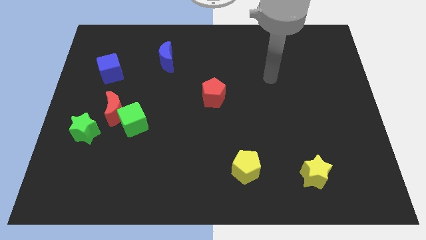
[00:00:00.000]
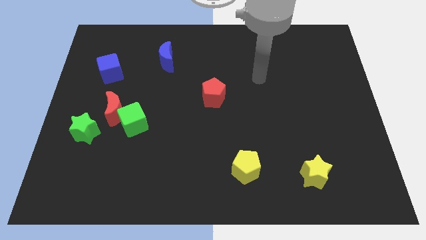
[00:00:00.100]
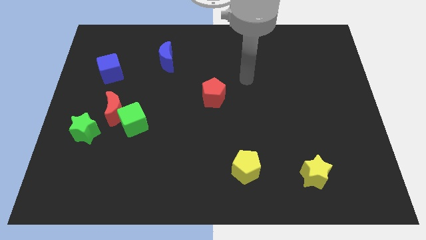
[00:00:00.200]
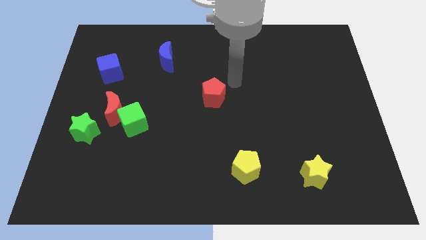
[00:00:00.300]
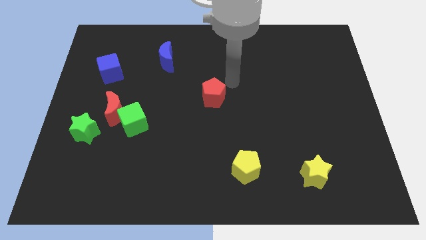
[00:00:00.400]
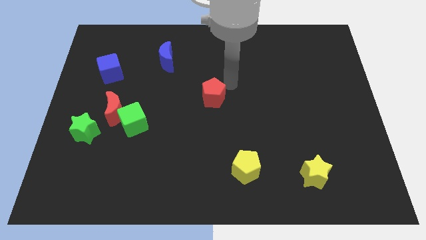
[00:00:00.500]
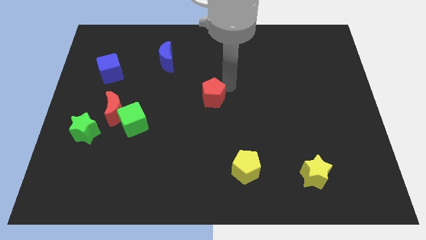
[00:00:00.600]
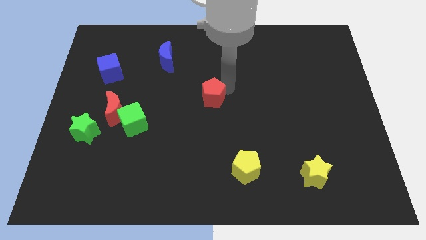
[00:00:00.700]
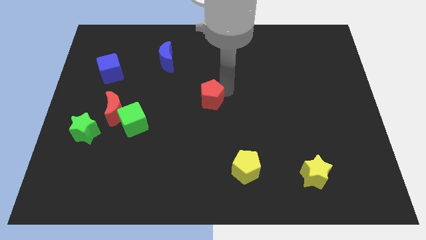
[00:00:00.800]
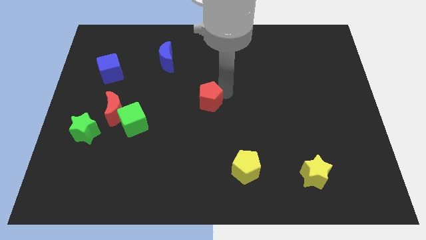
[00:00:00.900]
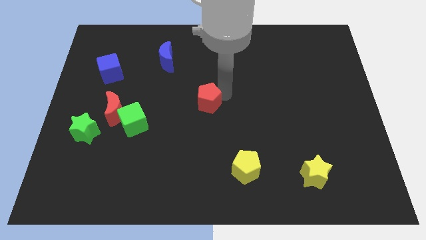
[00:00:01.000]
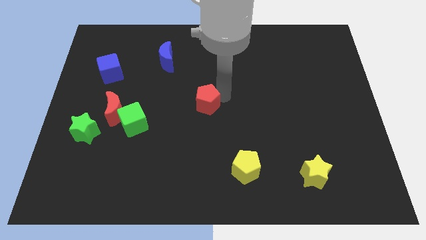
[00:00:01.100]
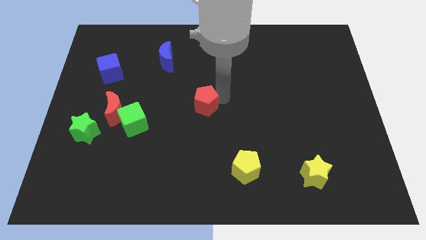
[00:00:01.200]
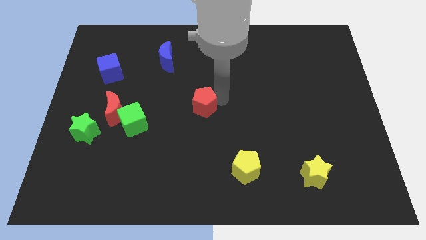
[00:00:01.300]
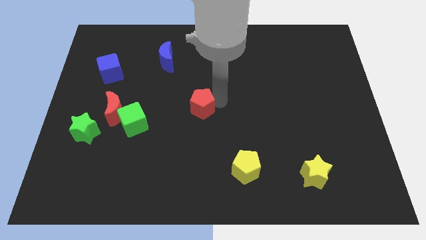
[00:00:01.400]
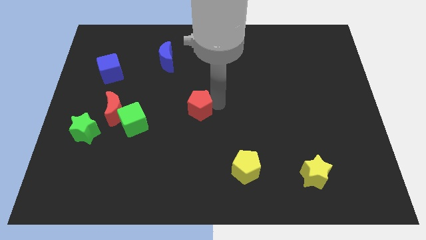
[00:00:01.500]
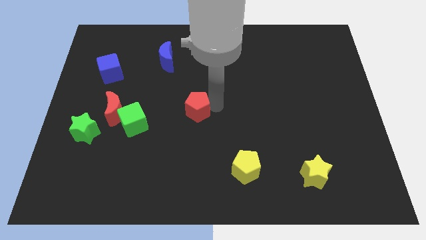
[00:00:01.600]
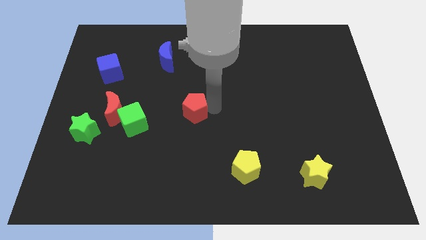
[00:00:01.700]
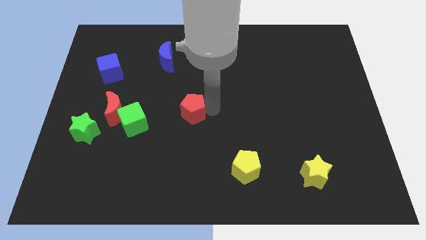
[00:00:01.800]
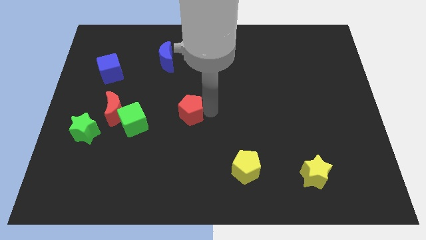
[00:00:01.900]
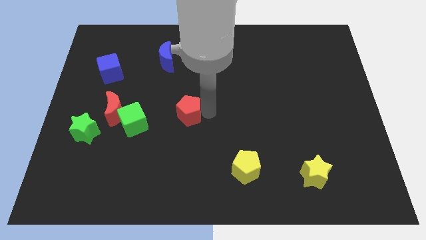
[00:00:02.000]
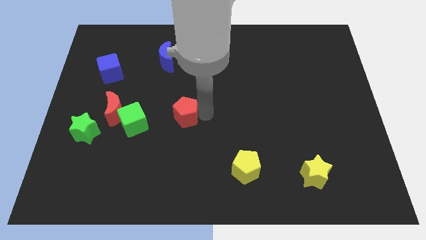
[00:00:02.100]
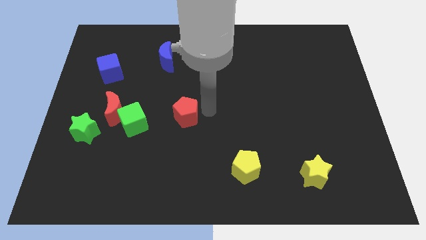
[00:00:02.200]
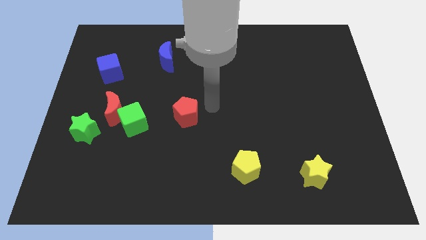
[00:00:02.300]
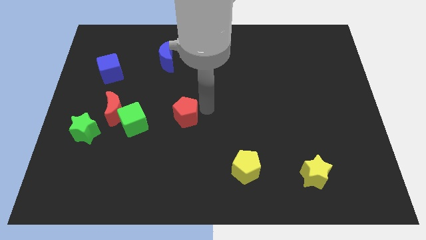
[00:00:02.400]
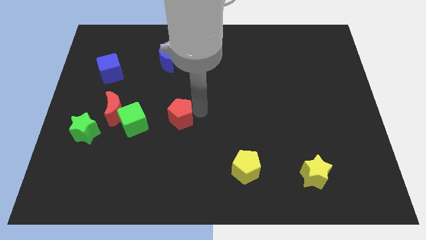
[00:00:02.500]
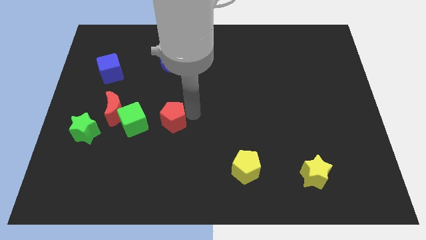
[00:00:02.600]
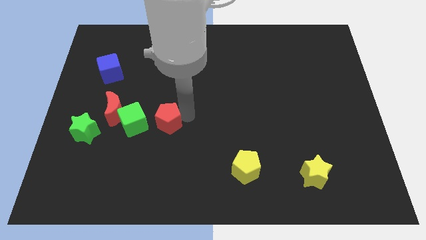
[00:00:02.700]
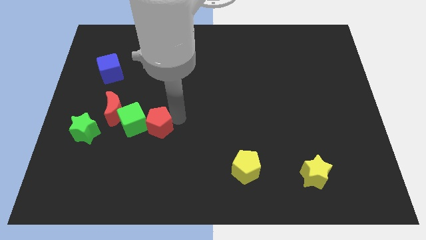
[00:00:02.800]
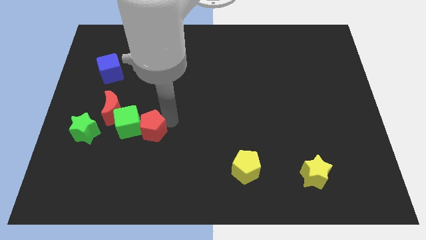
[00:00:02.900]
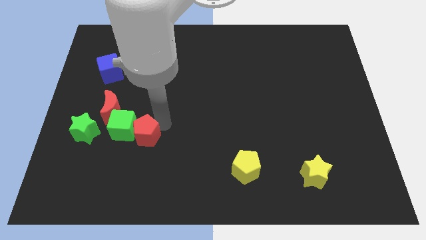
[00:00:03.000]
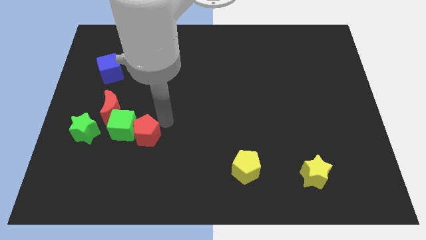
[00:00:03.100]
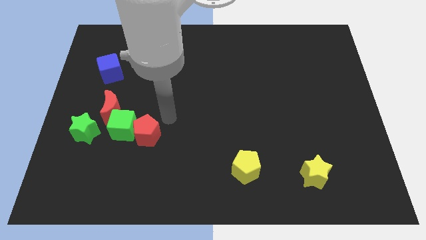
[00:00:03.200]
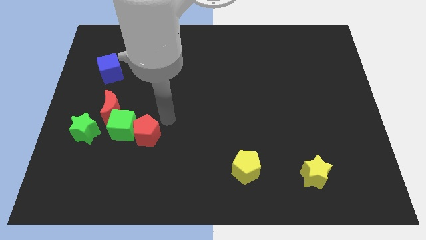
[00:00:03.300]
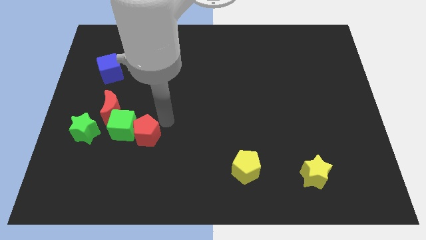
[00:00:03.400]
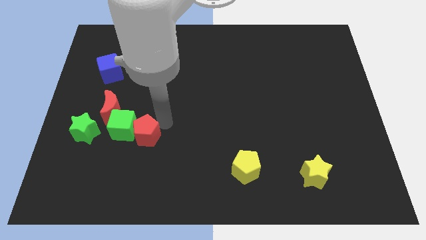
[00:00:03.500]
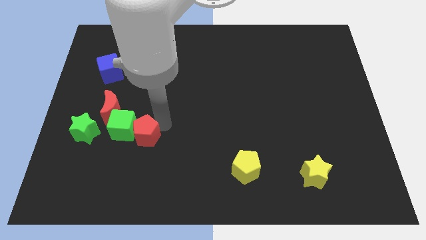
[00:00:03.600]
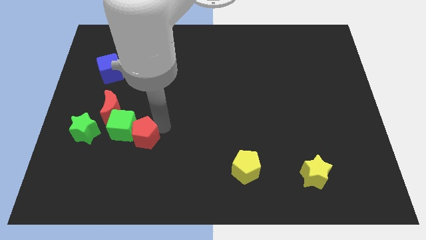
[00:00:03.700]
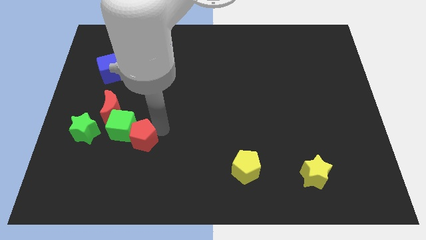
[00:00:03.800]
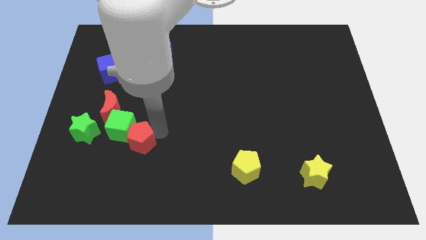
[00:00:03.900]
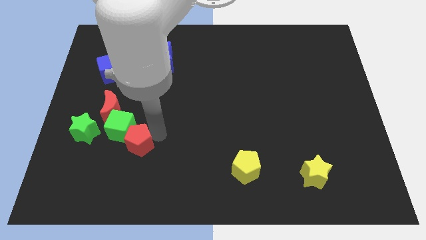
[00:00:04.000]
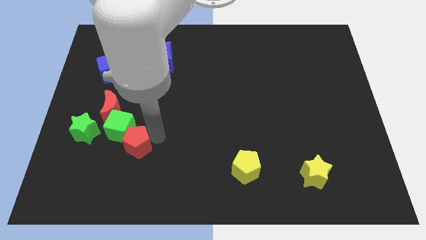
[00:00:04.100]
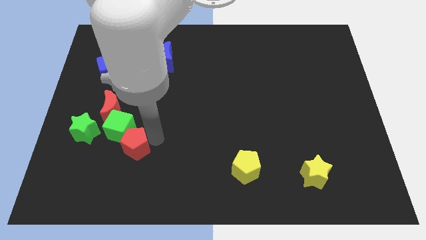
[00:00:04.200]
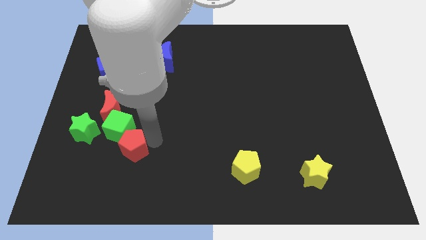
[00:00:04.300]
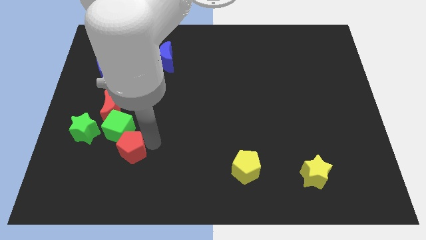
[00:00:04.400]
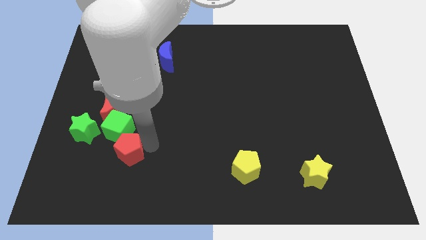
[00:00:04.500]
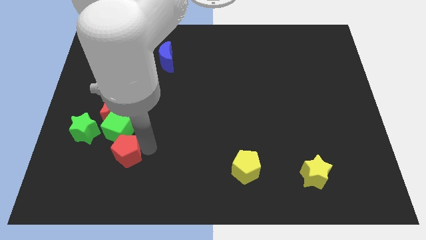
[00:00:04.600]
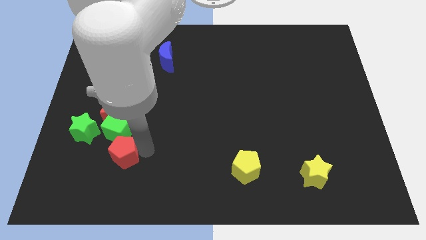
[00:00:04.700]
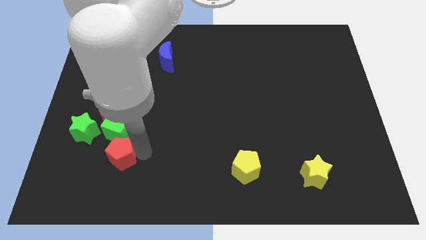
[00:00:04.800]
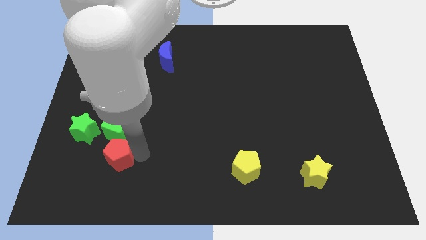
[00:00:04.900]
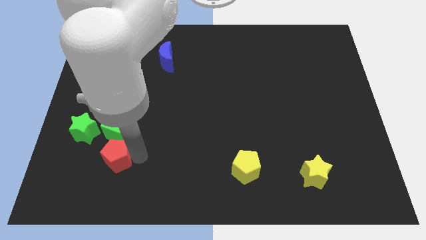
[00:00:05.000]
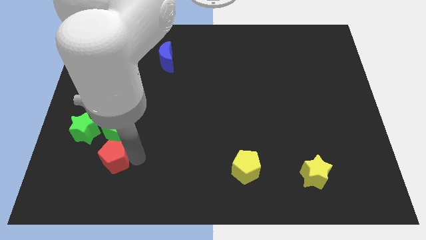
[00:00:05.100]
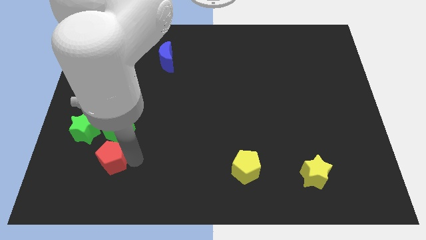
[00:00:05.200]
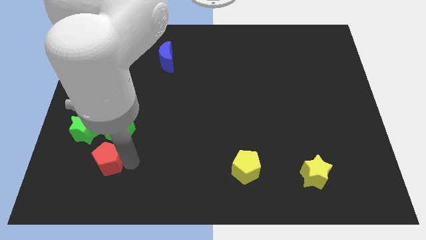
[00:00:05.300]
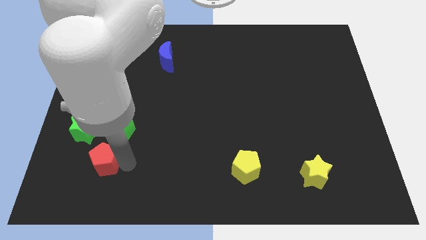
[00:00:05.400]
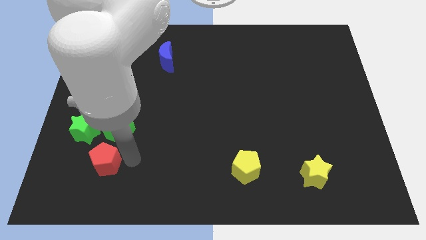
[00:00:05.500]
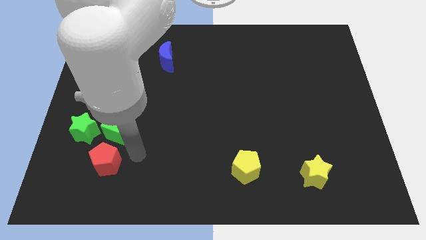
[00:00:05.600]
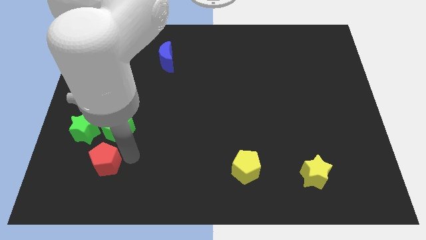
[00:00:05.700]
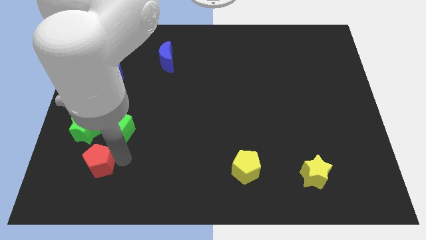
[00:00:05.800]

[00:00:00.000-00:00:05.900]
move the red pentagon to the bottom of the green star

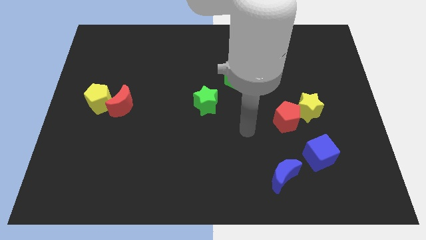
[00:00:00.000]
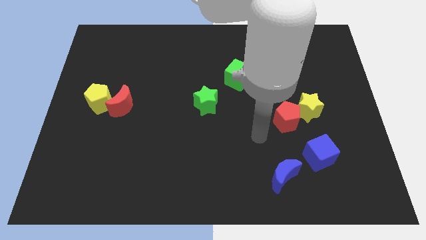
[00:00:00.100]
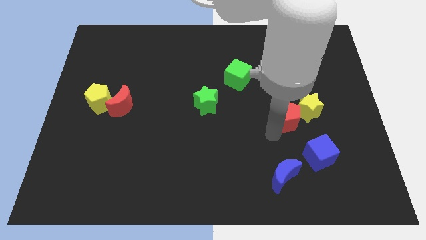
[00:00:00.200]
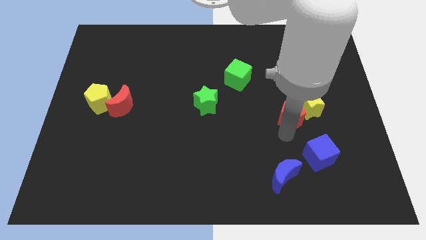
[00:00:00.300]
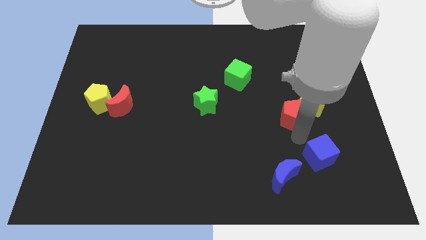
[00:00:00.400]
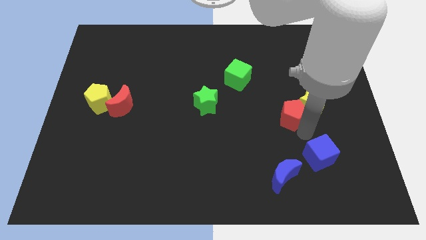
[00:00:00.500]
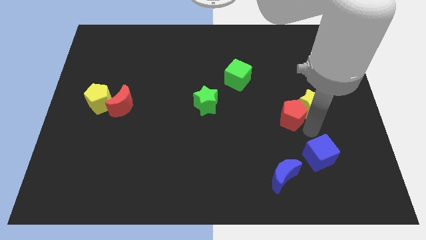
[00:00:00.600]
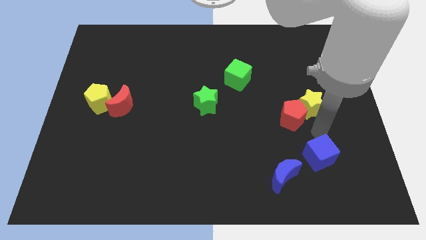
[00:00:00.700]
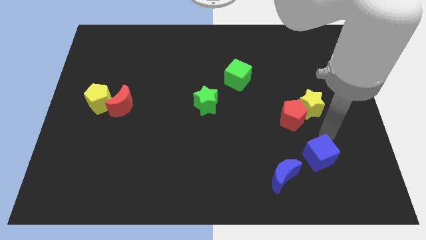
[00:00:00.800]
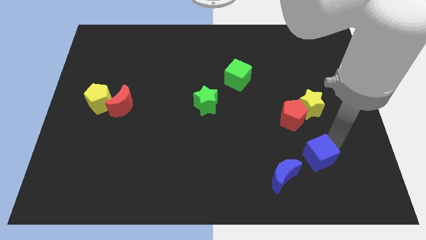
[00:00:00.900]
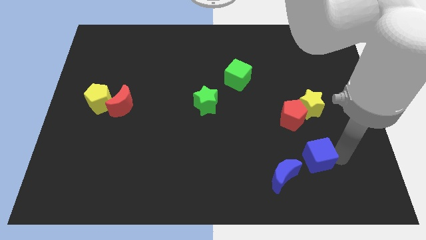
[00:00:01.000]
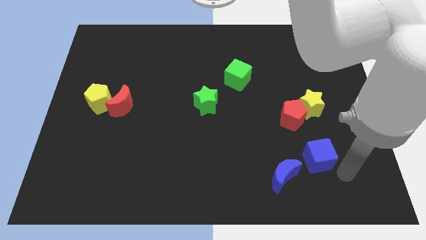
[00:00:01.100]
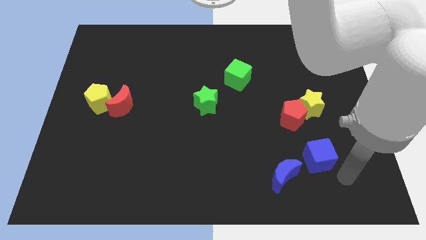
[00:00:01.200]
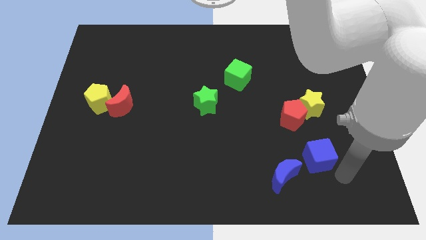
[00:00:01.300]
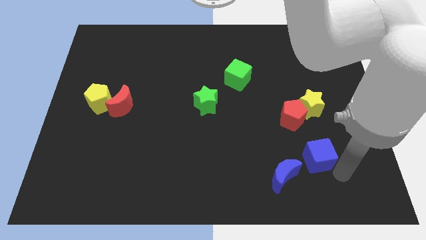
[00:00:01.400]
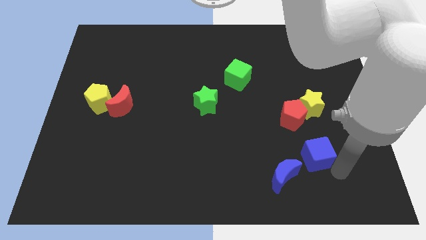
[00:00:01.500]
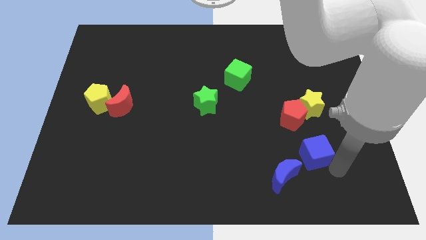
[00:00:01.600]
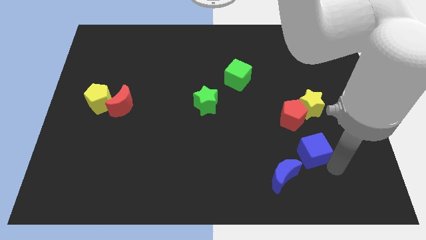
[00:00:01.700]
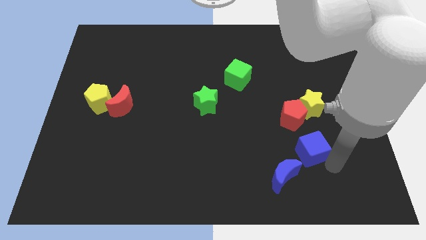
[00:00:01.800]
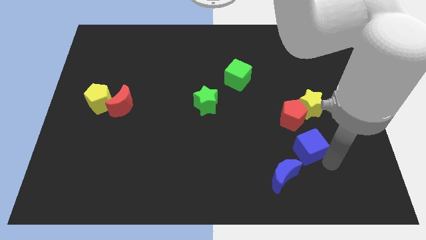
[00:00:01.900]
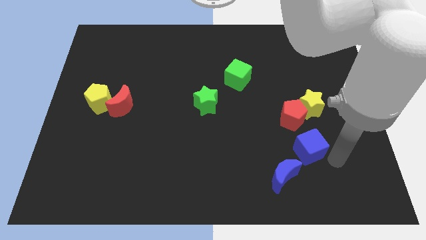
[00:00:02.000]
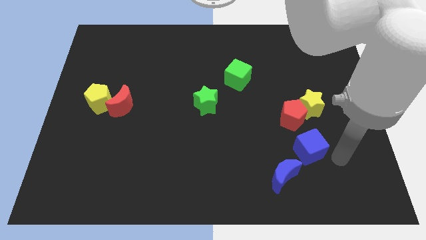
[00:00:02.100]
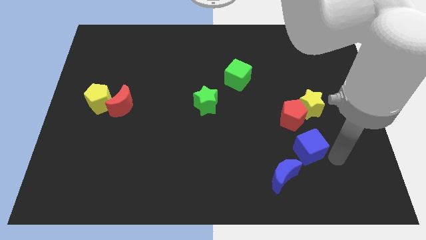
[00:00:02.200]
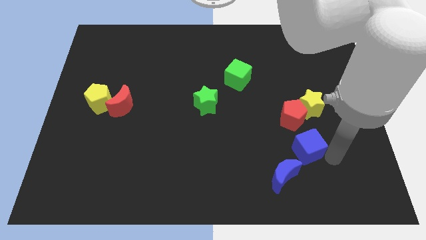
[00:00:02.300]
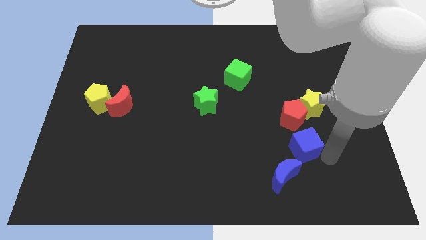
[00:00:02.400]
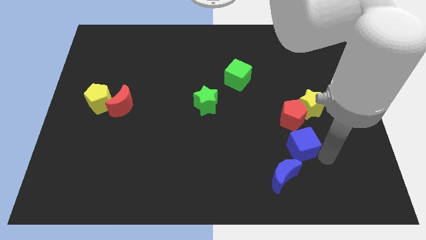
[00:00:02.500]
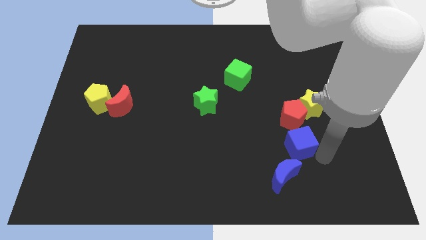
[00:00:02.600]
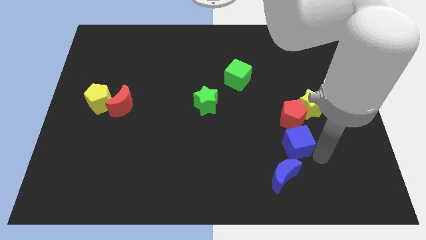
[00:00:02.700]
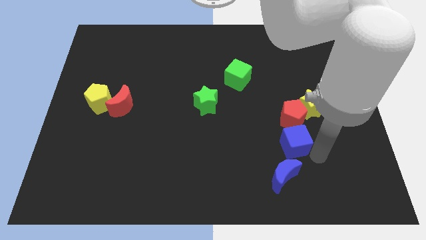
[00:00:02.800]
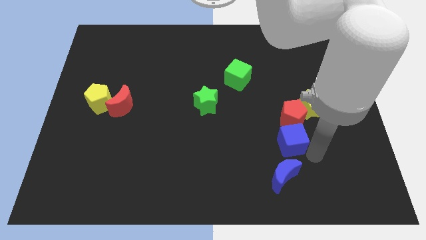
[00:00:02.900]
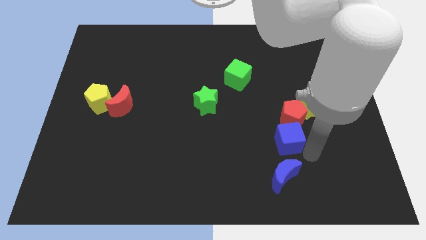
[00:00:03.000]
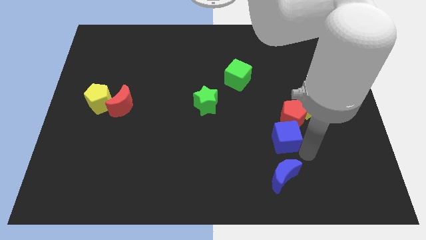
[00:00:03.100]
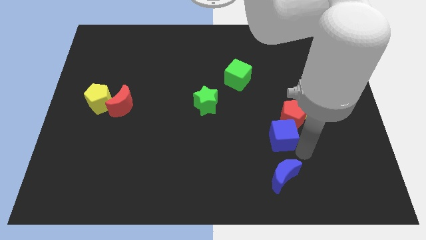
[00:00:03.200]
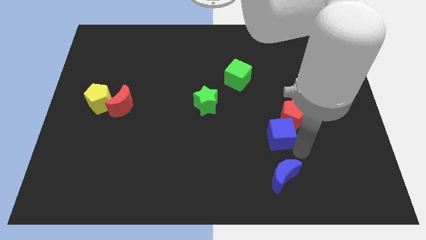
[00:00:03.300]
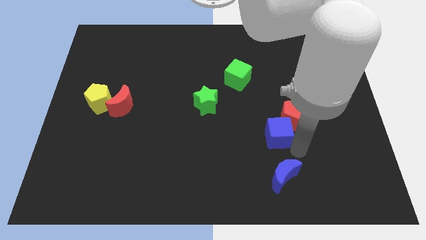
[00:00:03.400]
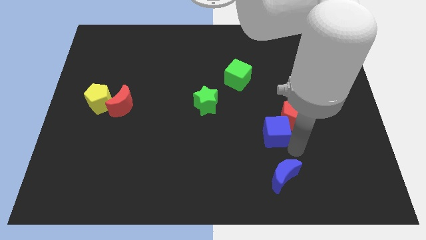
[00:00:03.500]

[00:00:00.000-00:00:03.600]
put the blue cube just left of the red pentagon
